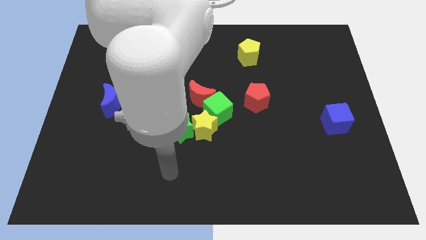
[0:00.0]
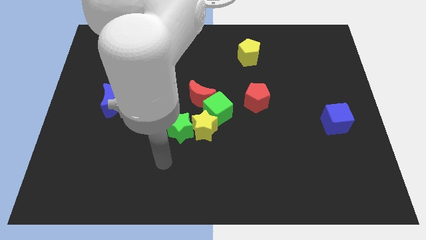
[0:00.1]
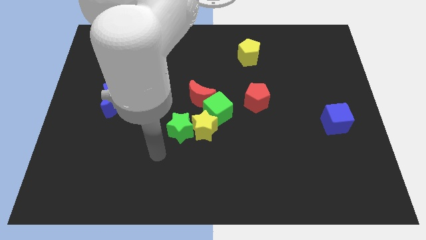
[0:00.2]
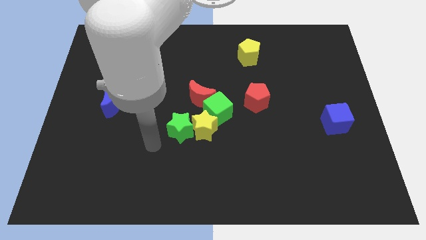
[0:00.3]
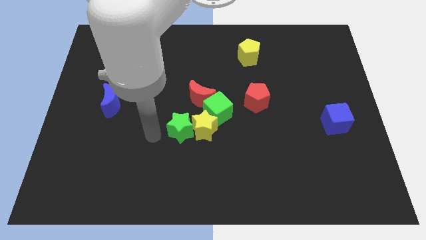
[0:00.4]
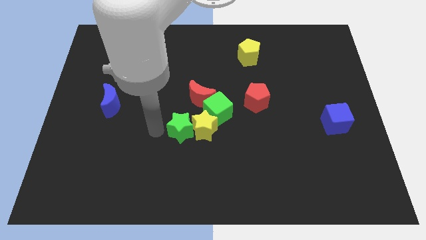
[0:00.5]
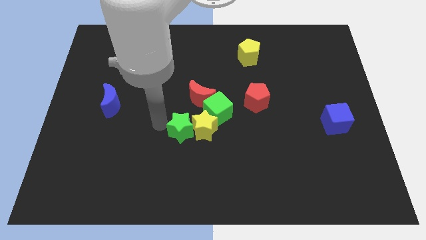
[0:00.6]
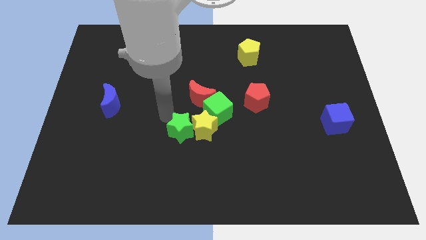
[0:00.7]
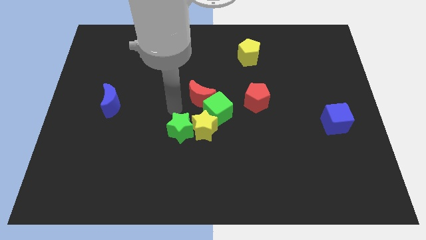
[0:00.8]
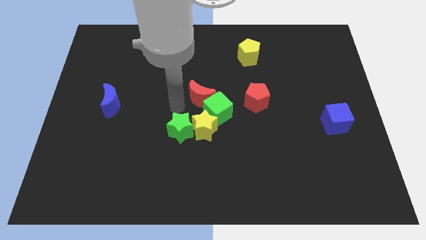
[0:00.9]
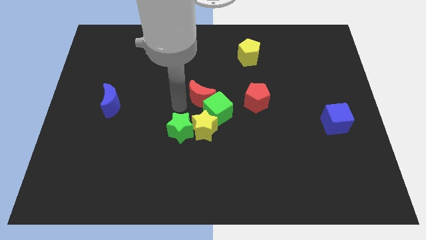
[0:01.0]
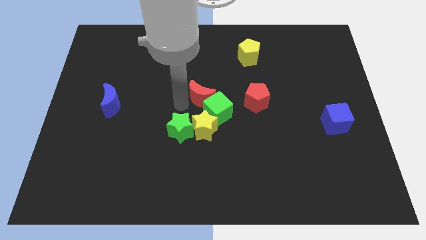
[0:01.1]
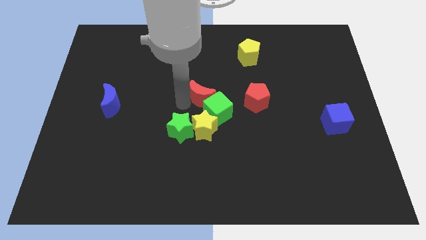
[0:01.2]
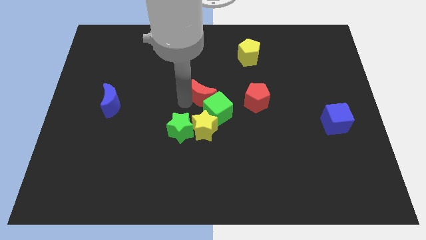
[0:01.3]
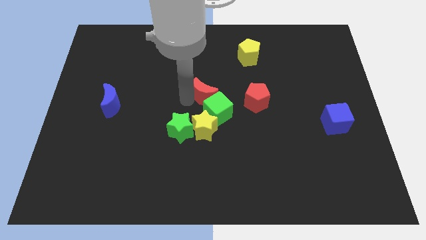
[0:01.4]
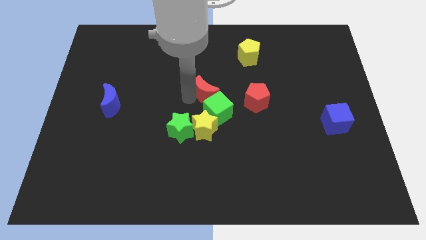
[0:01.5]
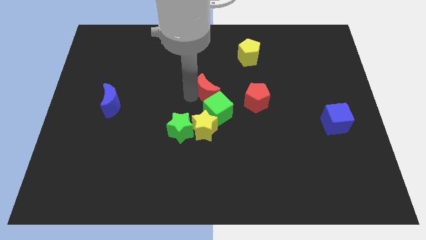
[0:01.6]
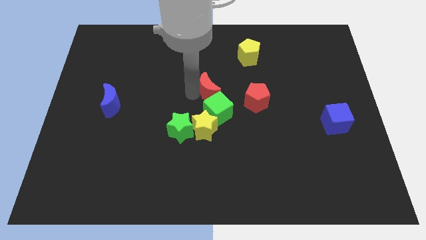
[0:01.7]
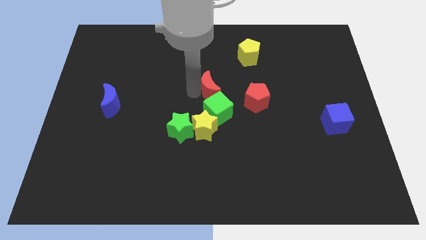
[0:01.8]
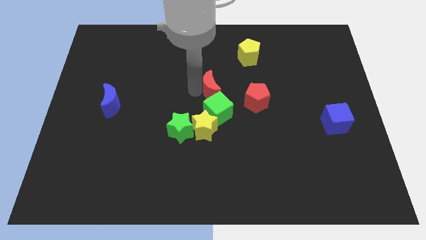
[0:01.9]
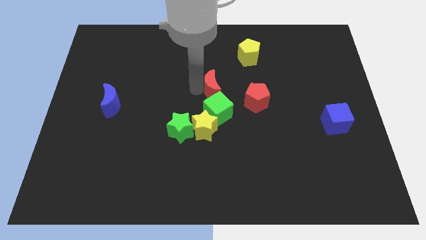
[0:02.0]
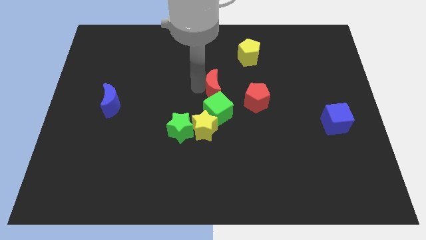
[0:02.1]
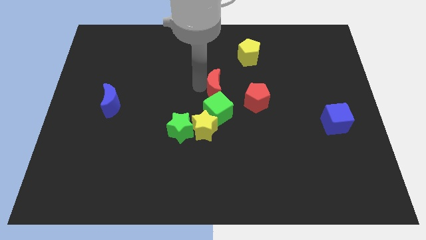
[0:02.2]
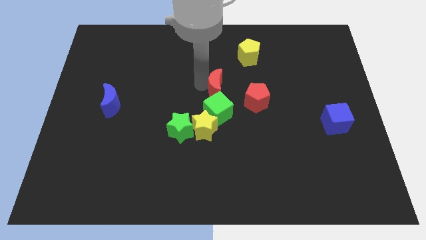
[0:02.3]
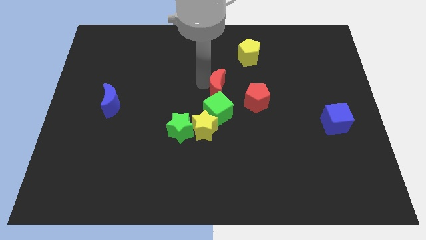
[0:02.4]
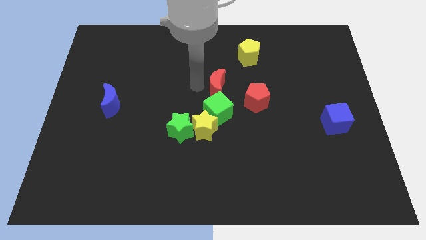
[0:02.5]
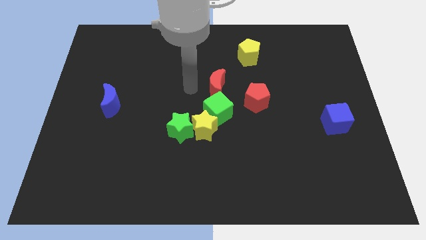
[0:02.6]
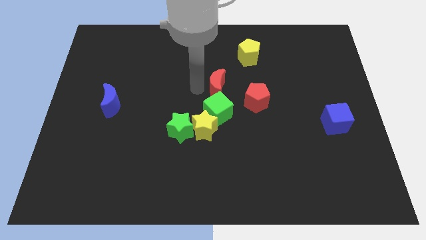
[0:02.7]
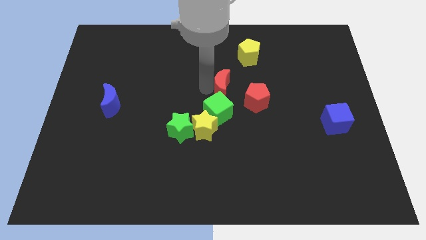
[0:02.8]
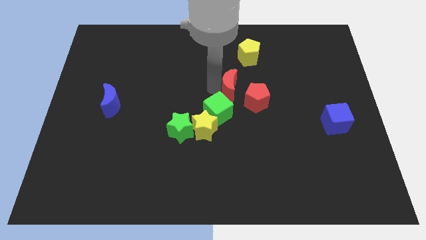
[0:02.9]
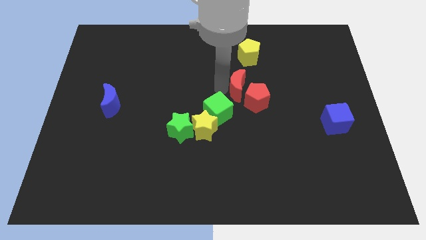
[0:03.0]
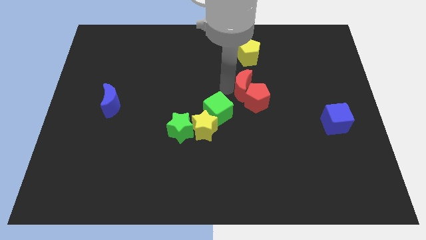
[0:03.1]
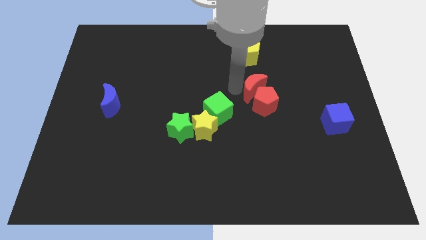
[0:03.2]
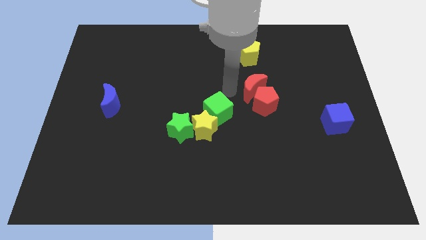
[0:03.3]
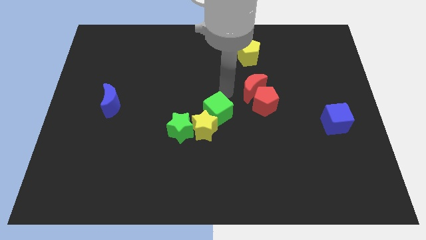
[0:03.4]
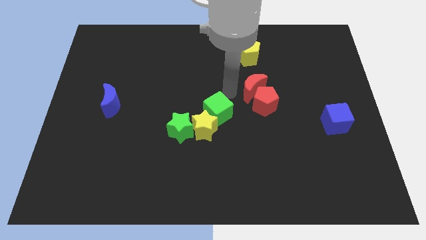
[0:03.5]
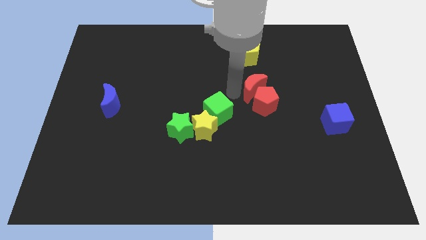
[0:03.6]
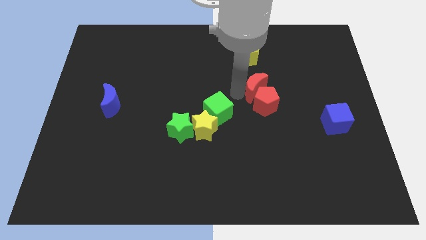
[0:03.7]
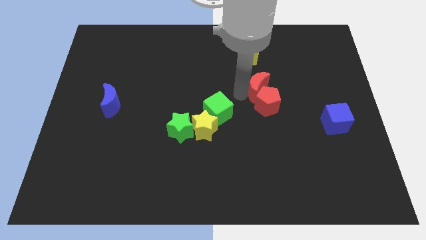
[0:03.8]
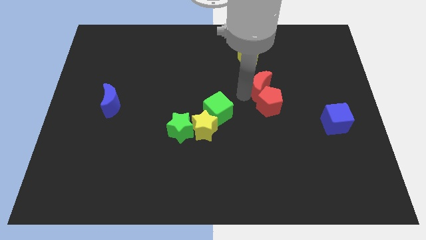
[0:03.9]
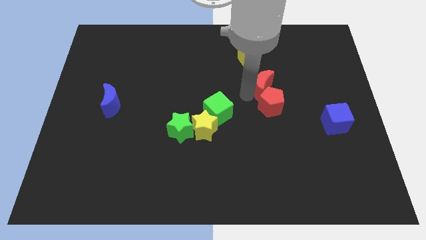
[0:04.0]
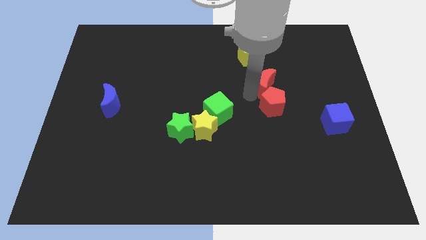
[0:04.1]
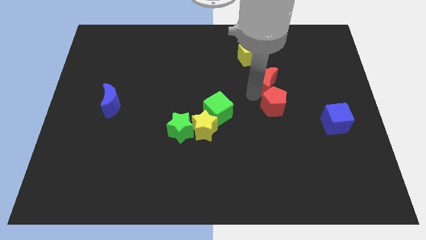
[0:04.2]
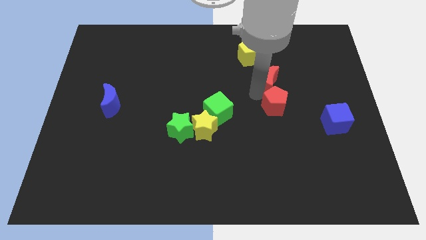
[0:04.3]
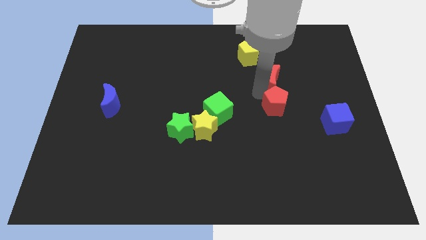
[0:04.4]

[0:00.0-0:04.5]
push the red moon to the top right side of the red pentagon

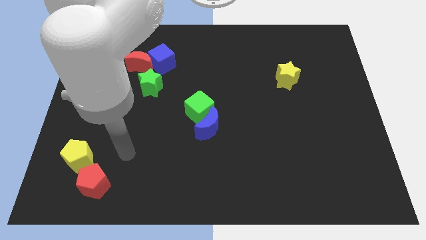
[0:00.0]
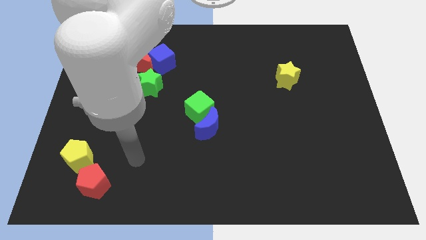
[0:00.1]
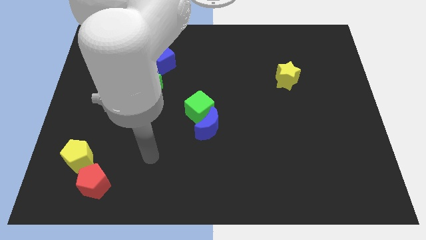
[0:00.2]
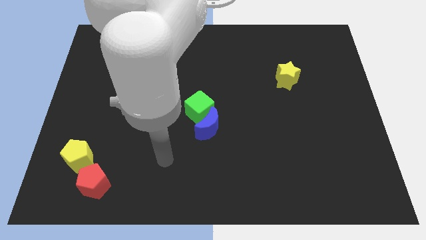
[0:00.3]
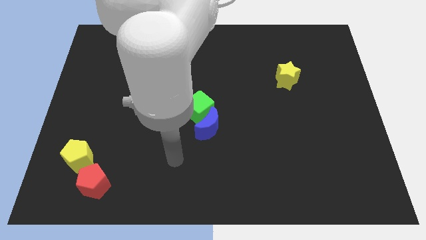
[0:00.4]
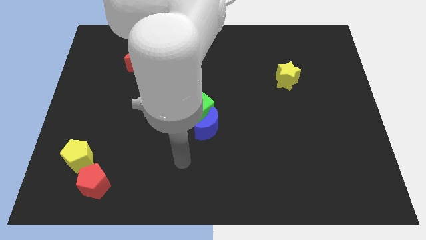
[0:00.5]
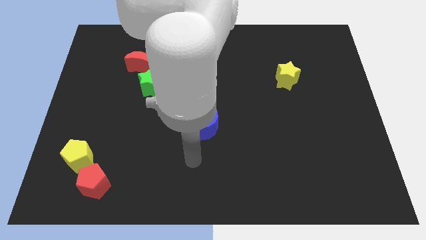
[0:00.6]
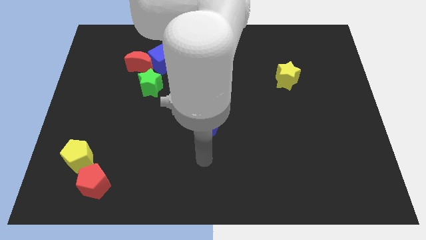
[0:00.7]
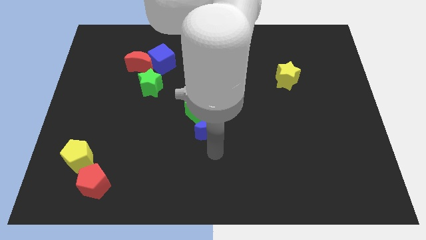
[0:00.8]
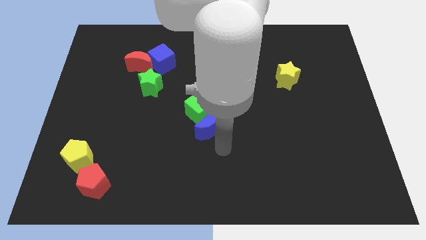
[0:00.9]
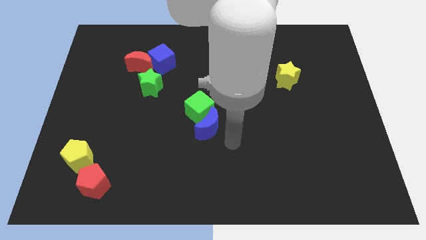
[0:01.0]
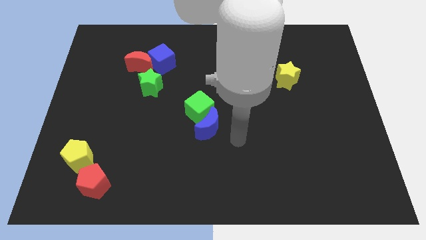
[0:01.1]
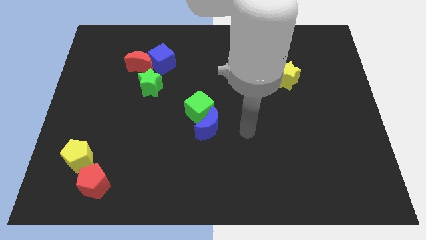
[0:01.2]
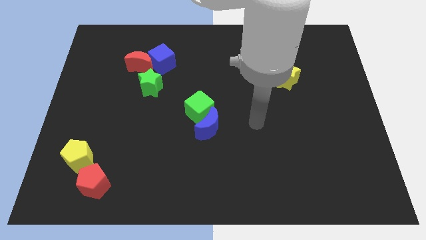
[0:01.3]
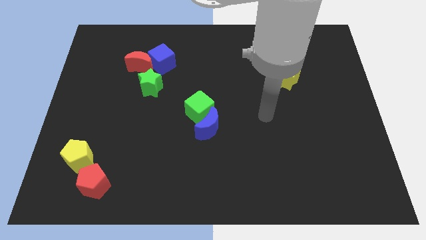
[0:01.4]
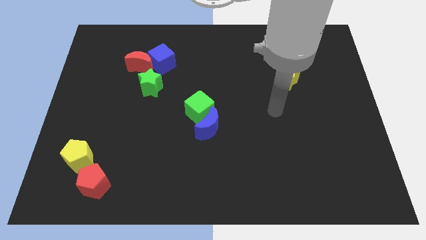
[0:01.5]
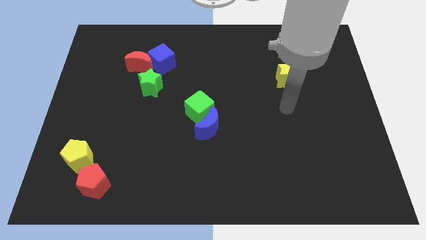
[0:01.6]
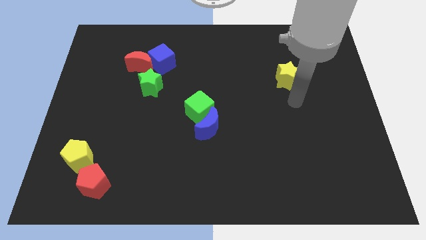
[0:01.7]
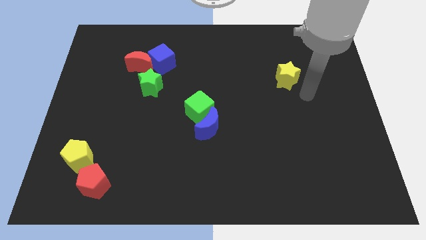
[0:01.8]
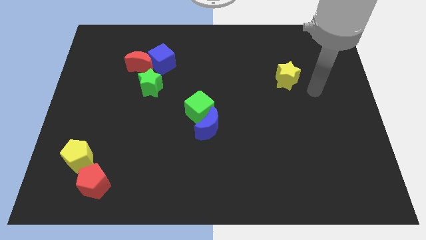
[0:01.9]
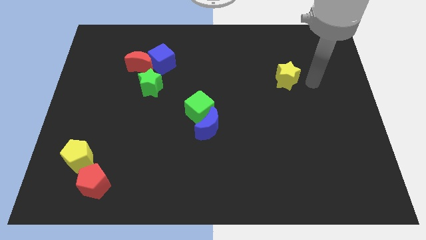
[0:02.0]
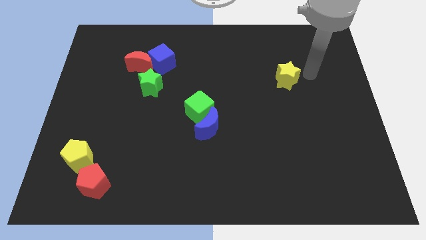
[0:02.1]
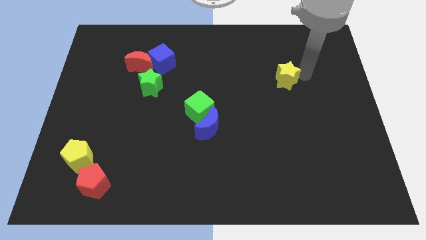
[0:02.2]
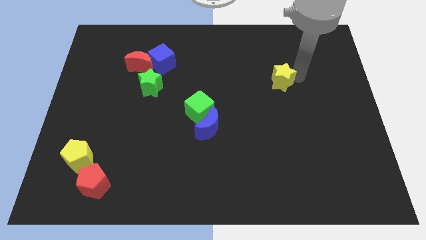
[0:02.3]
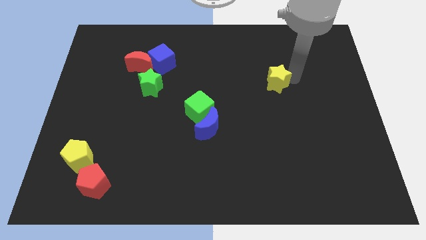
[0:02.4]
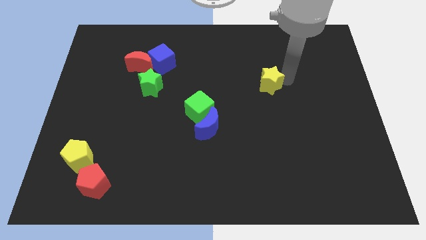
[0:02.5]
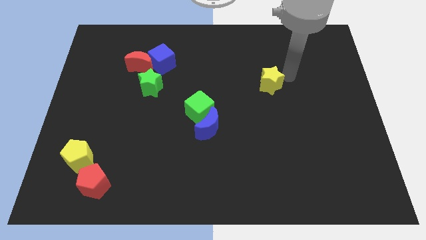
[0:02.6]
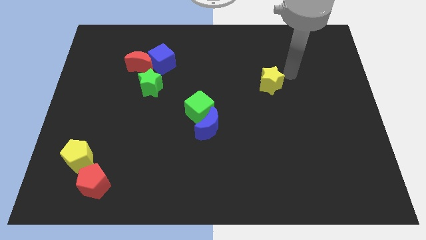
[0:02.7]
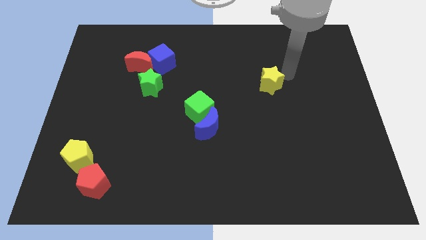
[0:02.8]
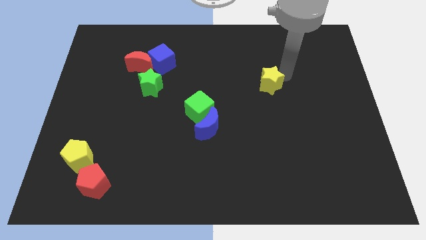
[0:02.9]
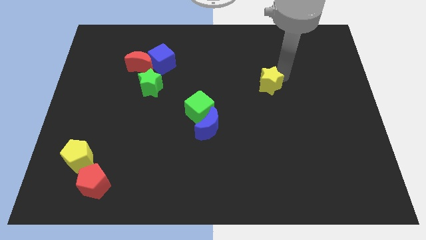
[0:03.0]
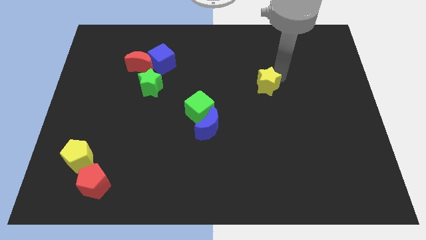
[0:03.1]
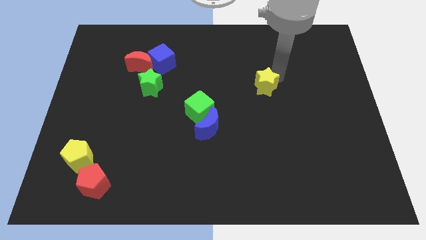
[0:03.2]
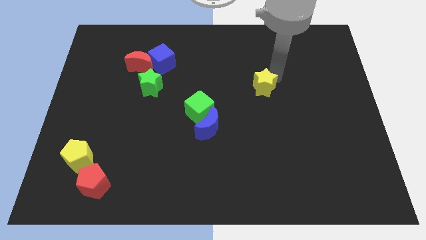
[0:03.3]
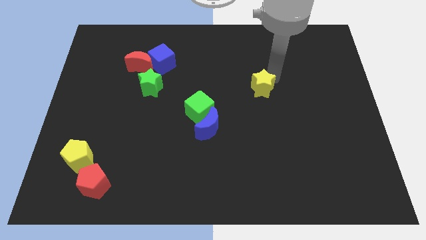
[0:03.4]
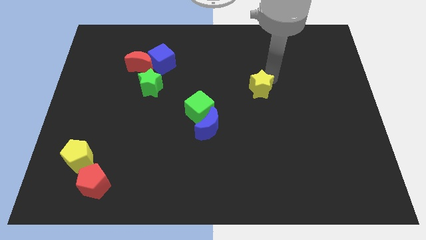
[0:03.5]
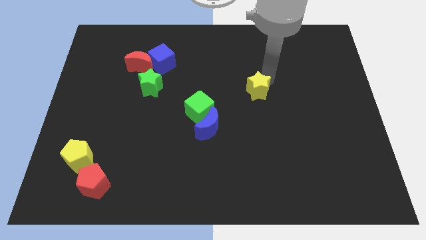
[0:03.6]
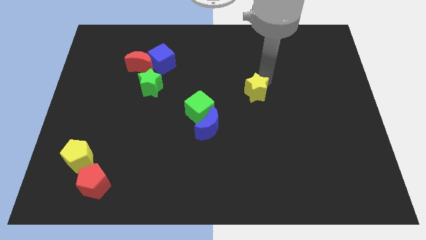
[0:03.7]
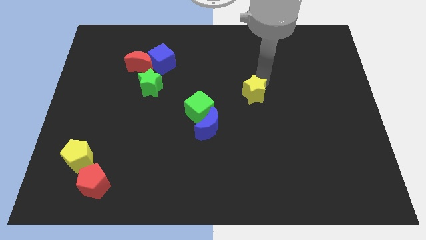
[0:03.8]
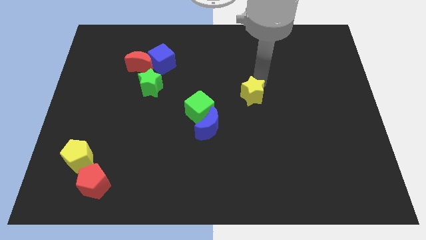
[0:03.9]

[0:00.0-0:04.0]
slide the yellow star to the right of the green cube
